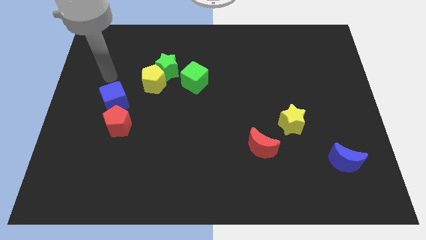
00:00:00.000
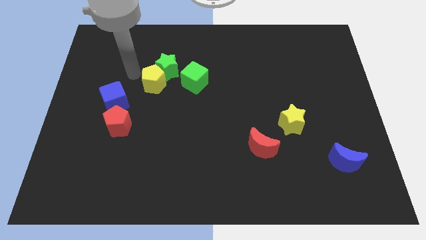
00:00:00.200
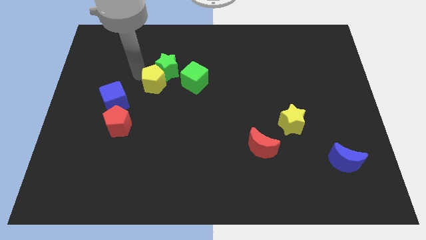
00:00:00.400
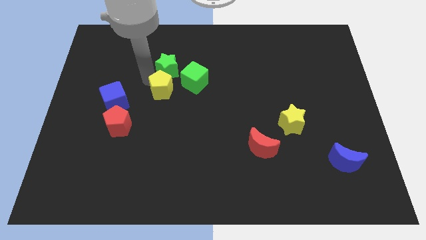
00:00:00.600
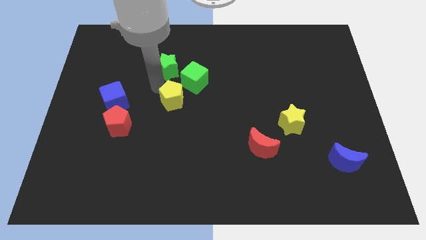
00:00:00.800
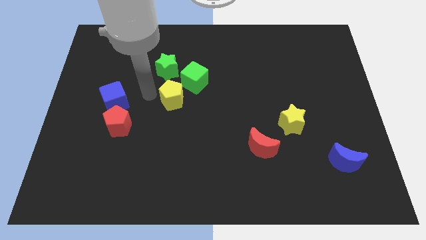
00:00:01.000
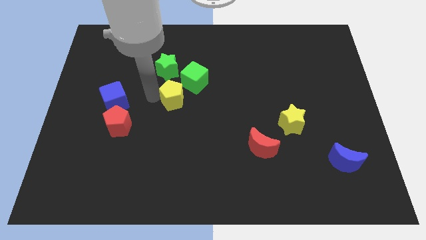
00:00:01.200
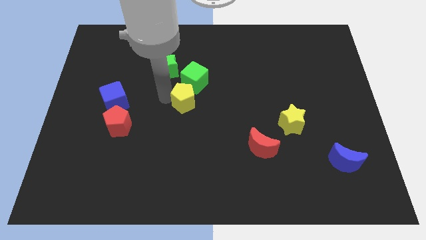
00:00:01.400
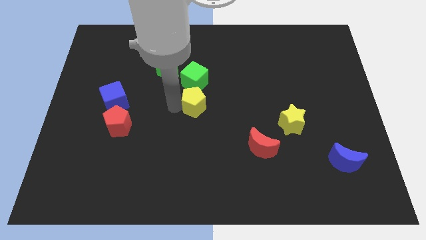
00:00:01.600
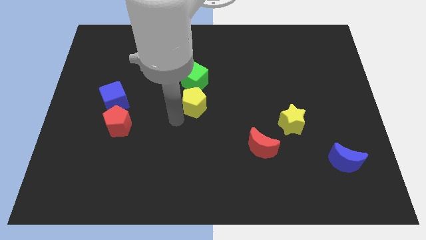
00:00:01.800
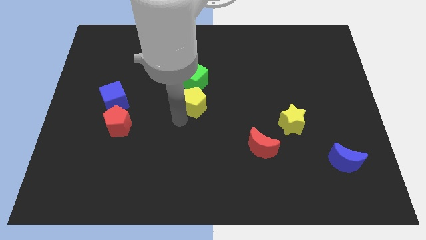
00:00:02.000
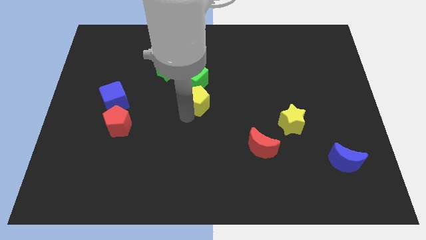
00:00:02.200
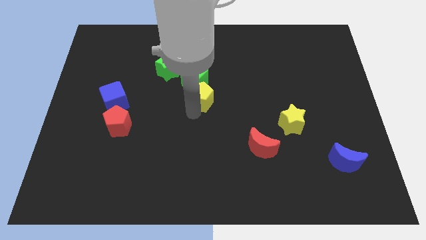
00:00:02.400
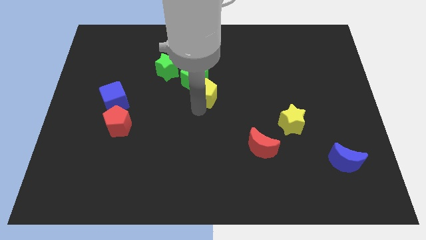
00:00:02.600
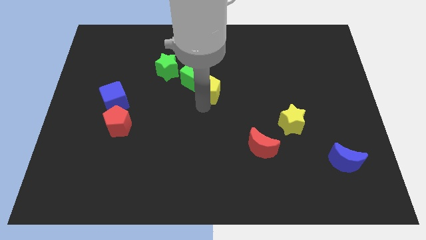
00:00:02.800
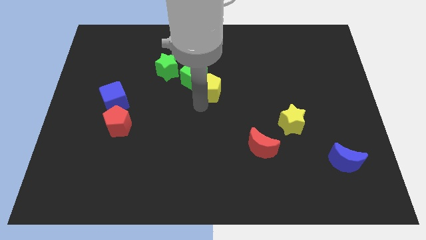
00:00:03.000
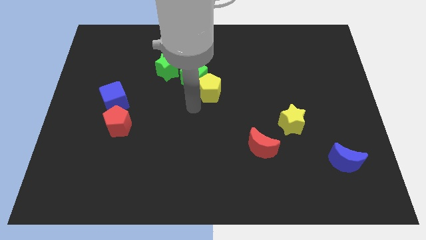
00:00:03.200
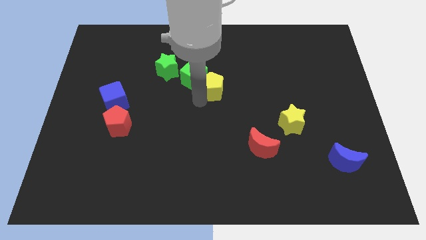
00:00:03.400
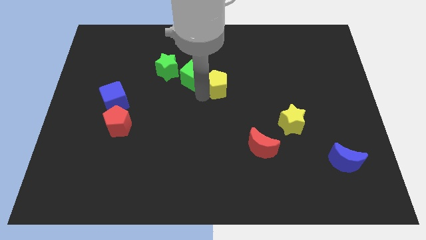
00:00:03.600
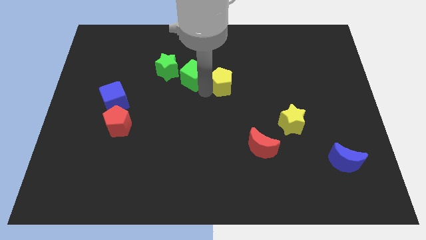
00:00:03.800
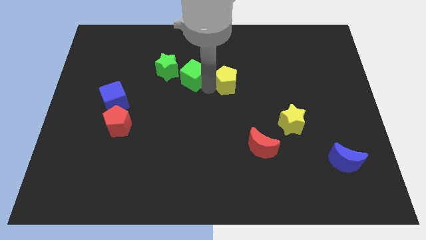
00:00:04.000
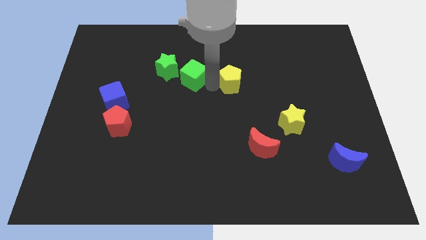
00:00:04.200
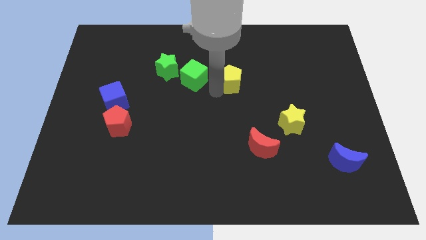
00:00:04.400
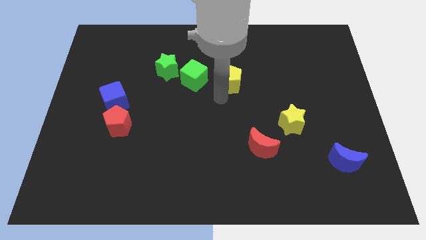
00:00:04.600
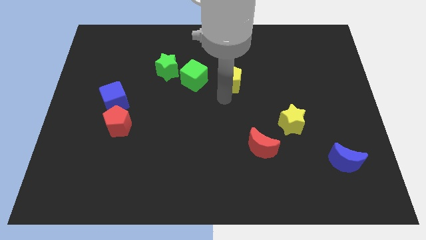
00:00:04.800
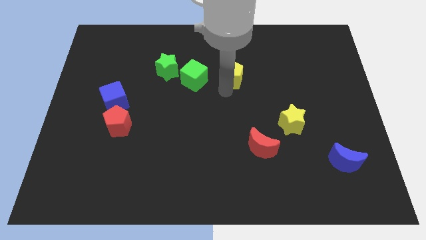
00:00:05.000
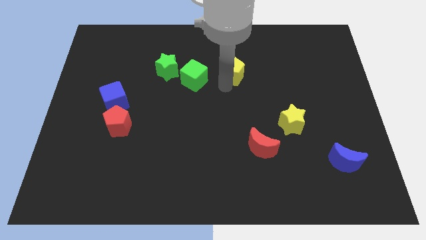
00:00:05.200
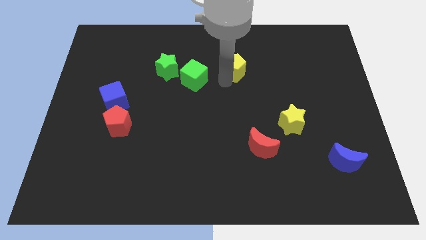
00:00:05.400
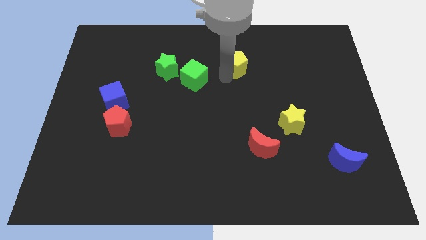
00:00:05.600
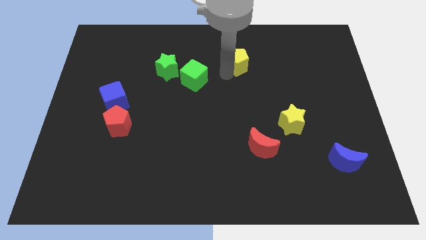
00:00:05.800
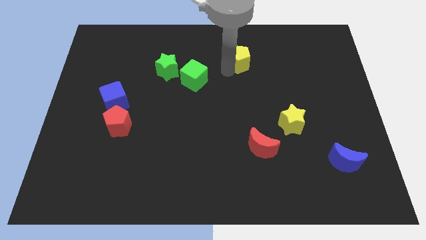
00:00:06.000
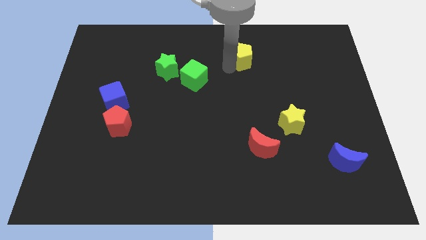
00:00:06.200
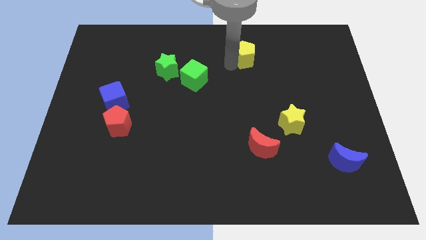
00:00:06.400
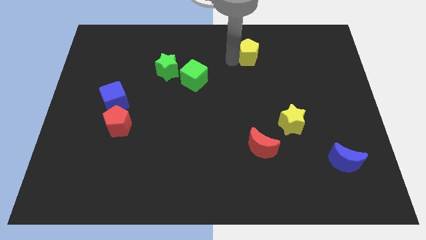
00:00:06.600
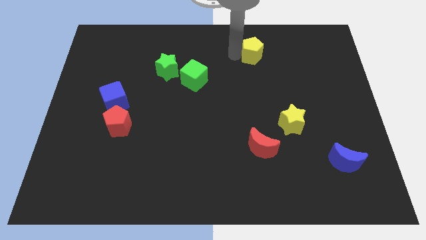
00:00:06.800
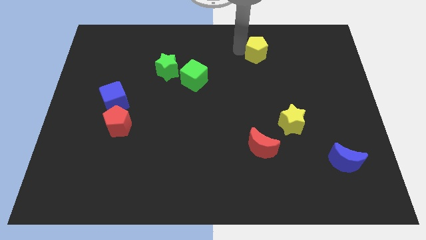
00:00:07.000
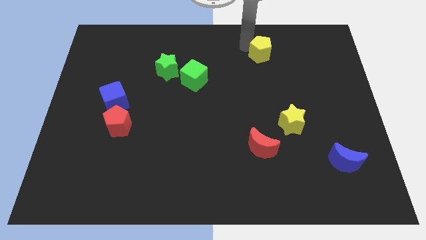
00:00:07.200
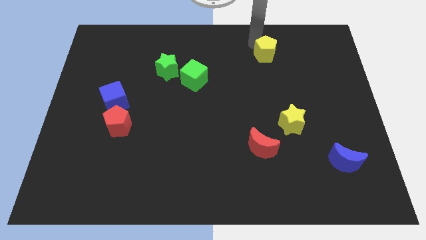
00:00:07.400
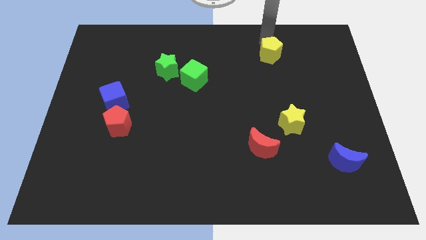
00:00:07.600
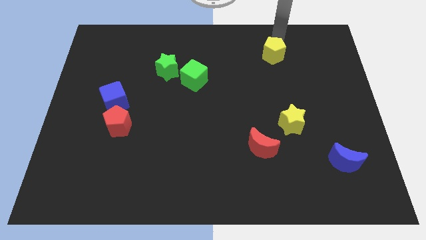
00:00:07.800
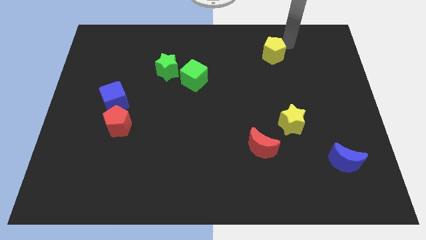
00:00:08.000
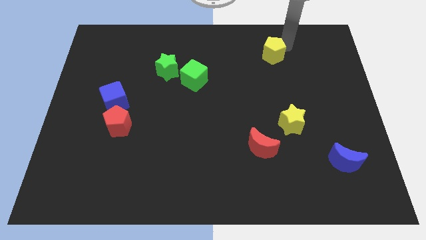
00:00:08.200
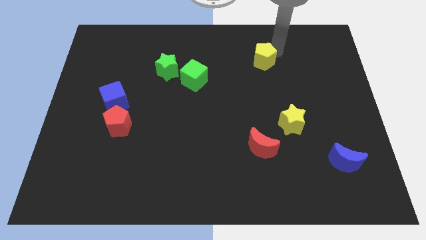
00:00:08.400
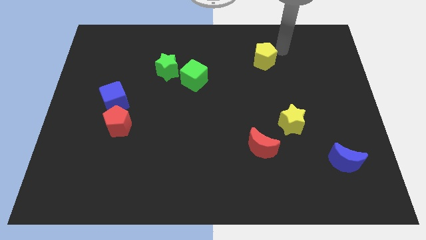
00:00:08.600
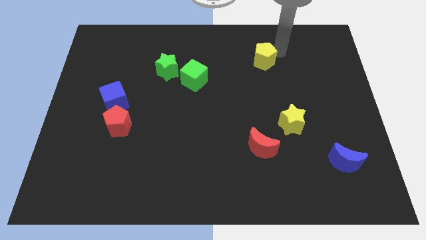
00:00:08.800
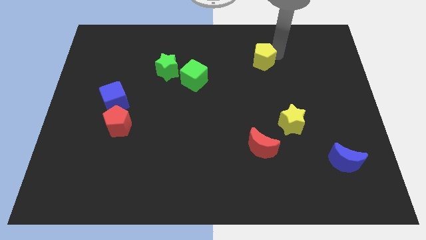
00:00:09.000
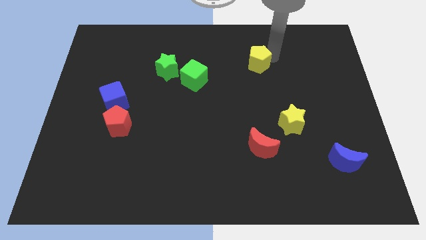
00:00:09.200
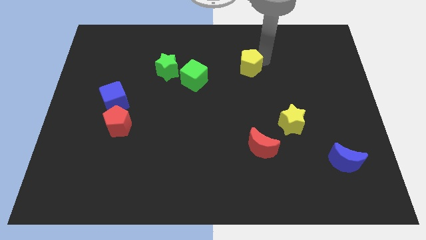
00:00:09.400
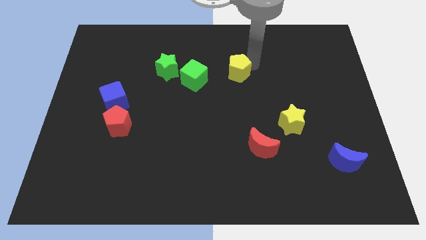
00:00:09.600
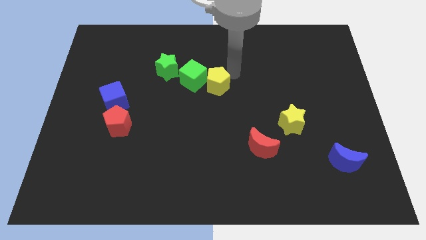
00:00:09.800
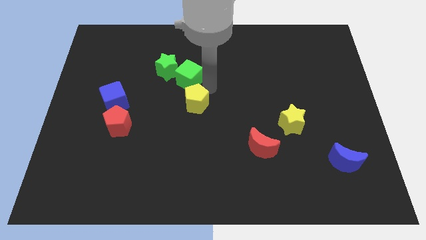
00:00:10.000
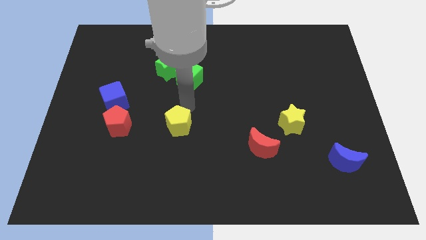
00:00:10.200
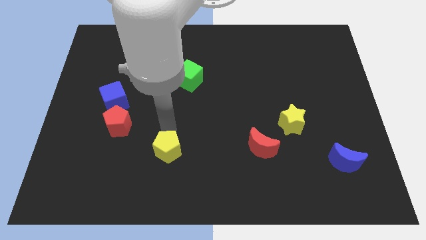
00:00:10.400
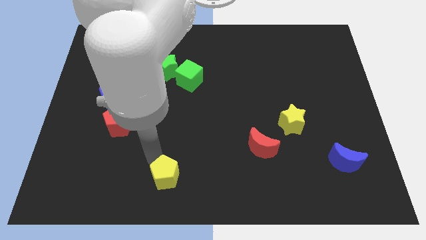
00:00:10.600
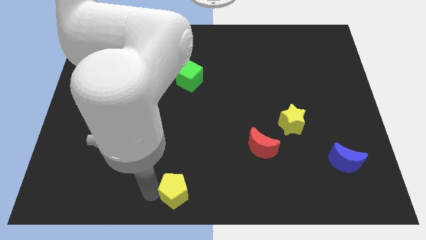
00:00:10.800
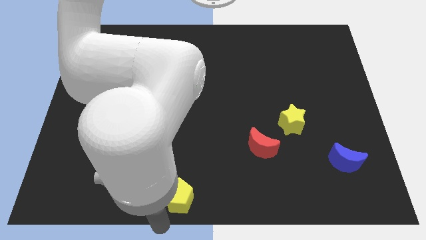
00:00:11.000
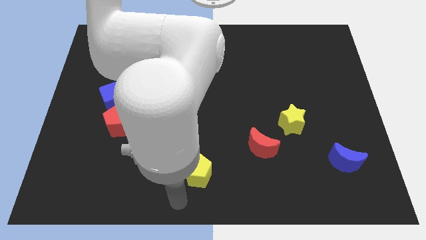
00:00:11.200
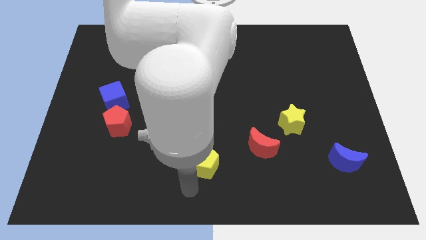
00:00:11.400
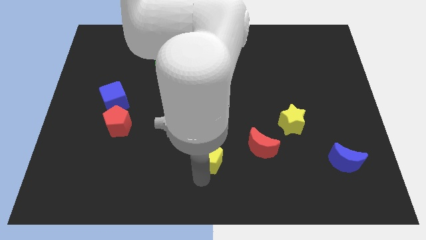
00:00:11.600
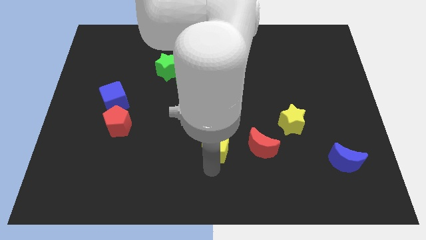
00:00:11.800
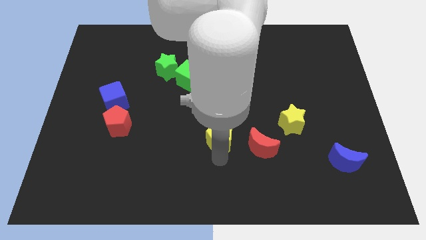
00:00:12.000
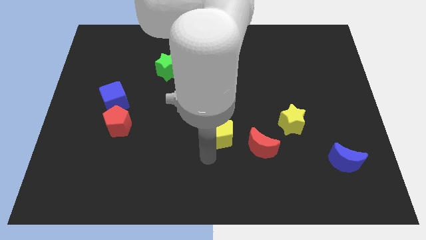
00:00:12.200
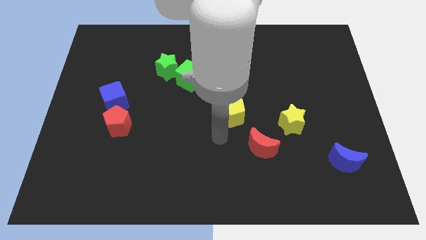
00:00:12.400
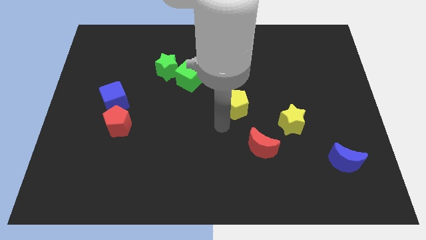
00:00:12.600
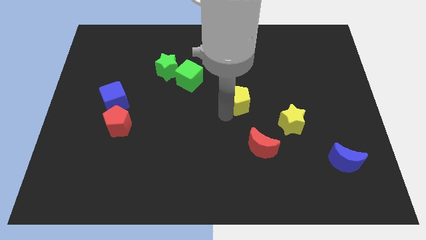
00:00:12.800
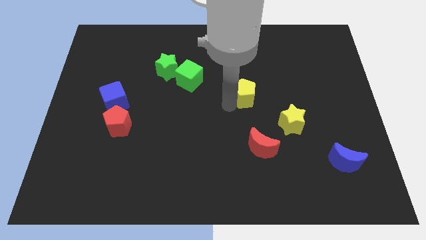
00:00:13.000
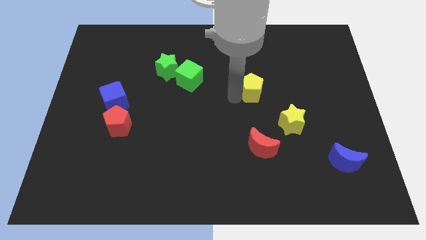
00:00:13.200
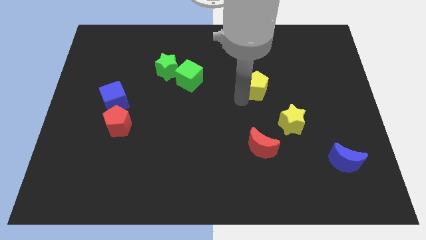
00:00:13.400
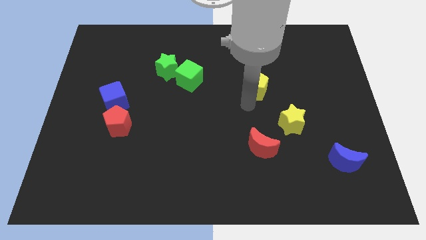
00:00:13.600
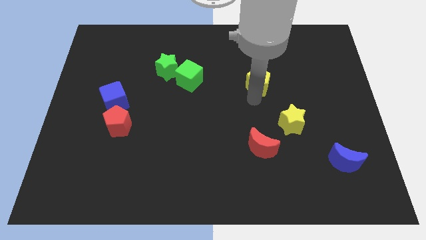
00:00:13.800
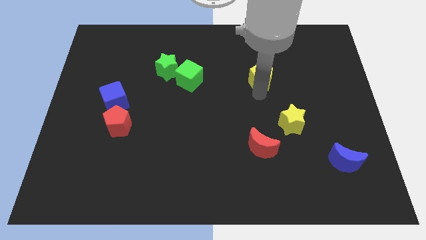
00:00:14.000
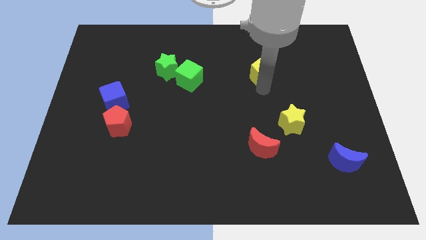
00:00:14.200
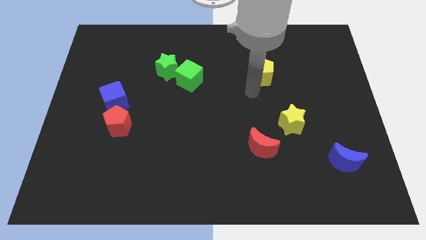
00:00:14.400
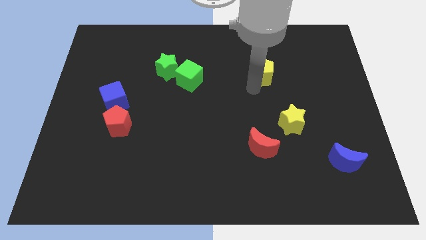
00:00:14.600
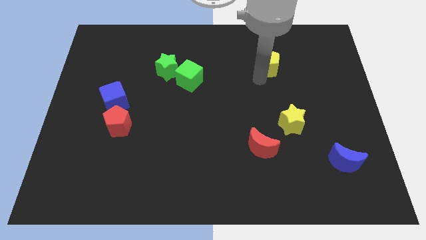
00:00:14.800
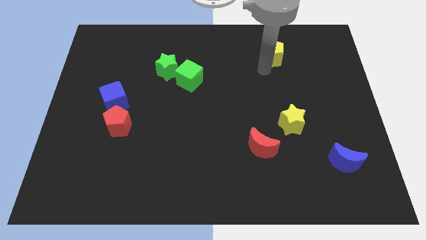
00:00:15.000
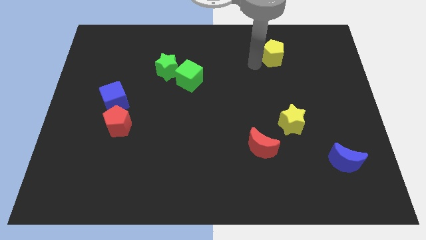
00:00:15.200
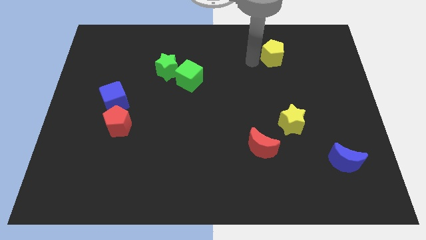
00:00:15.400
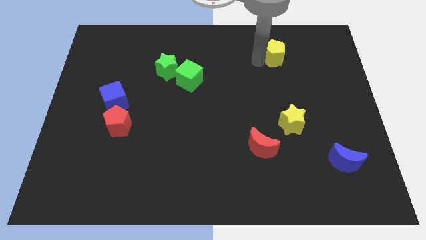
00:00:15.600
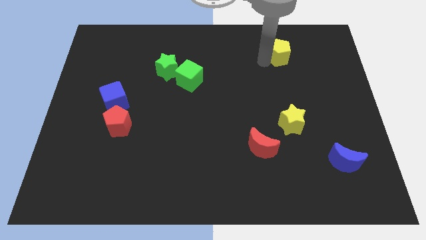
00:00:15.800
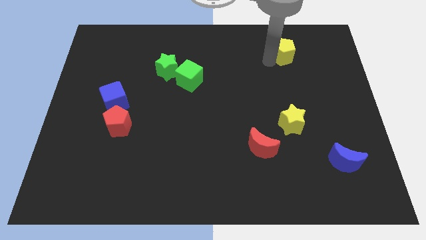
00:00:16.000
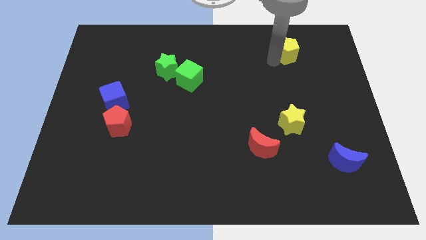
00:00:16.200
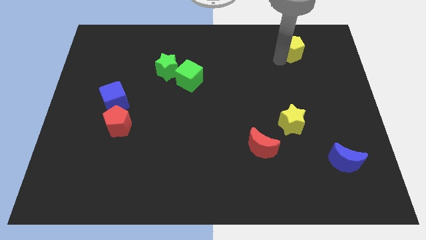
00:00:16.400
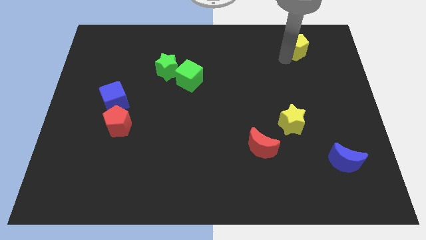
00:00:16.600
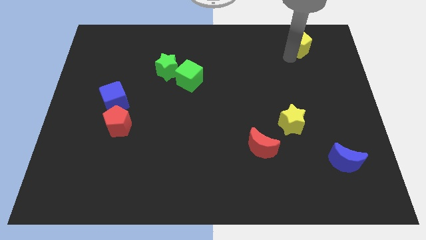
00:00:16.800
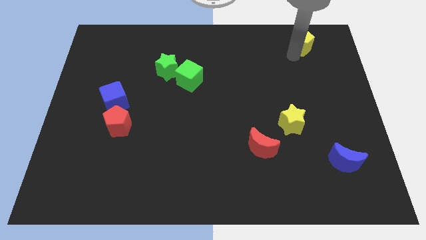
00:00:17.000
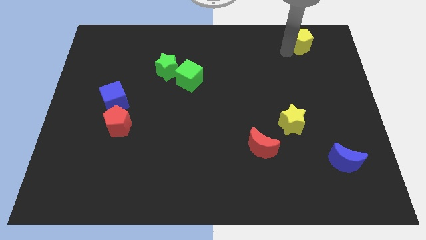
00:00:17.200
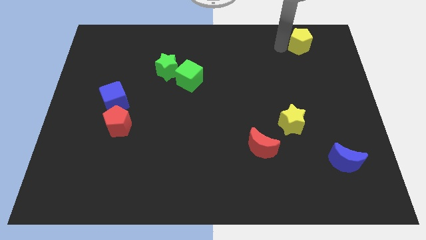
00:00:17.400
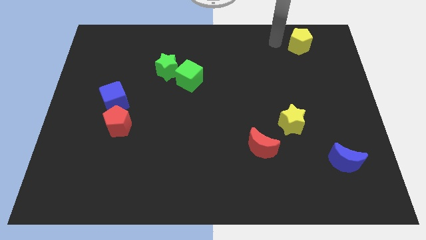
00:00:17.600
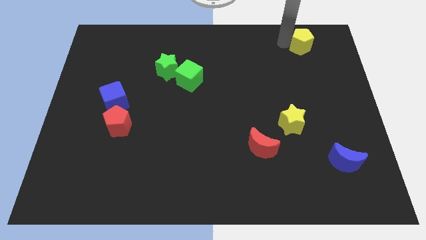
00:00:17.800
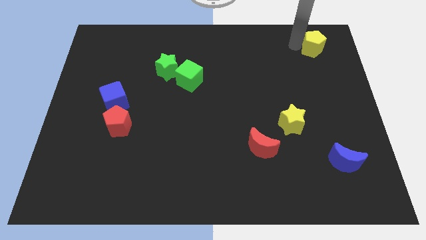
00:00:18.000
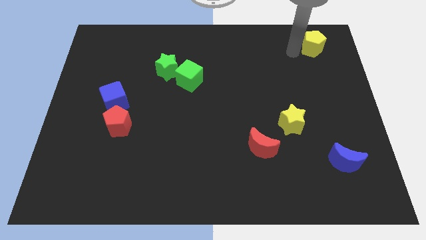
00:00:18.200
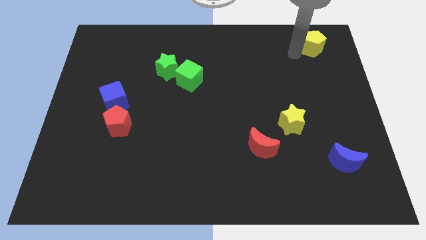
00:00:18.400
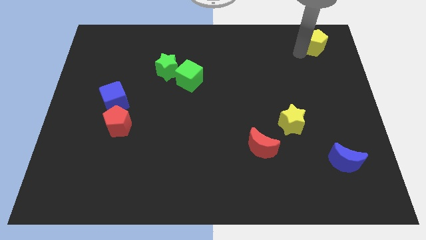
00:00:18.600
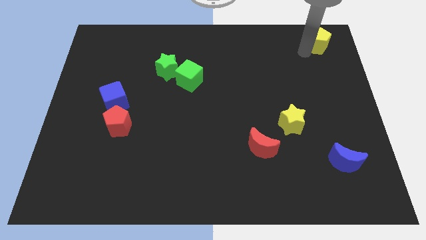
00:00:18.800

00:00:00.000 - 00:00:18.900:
move the yellow pentagon to the top right corner
